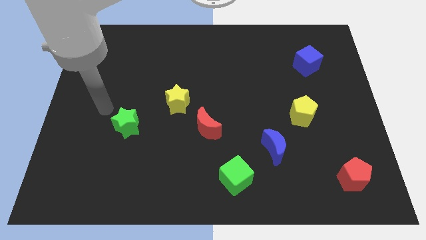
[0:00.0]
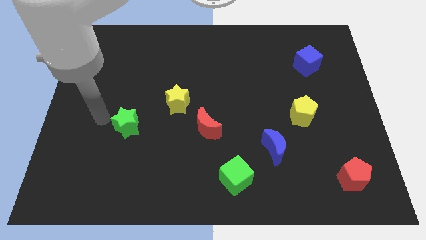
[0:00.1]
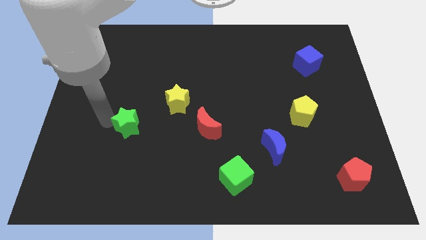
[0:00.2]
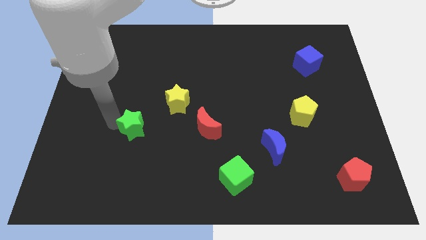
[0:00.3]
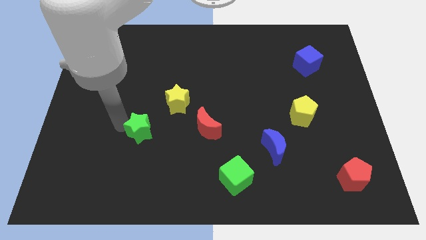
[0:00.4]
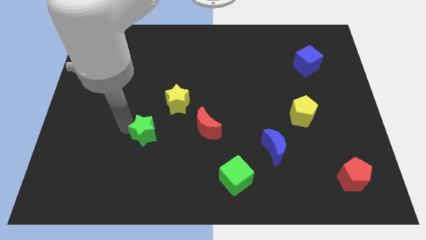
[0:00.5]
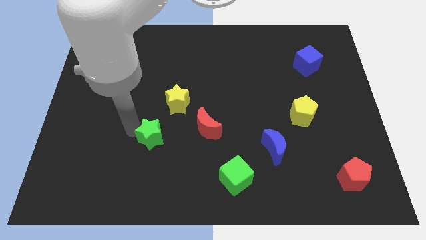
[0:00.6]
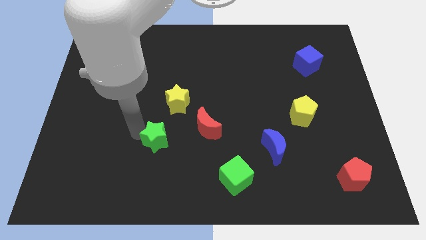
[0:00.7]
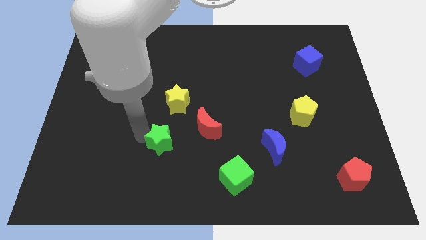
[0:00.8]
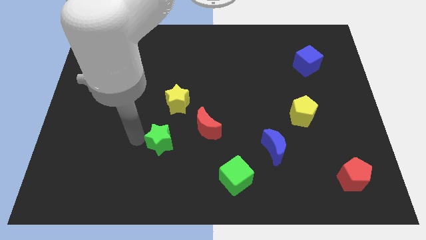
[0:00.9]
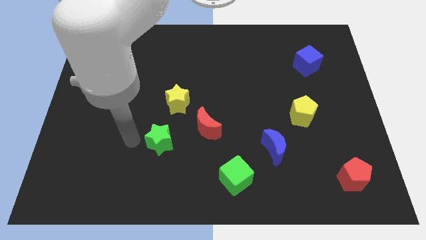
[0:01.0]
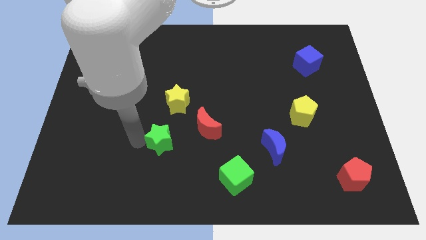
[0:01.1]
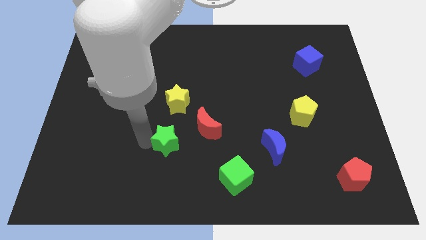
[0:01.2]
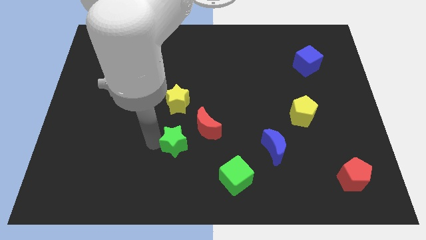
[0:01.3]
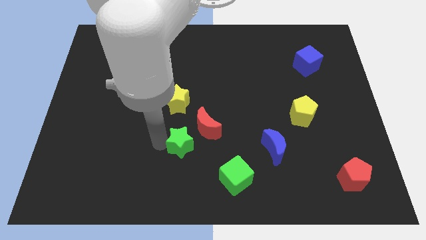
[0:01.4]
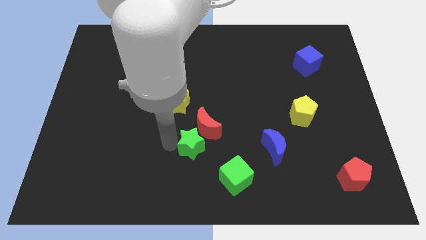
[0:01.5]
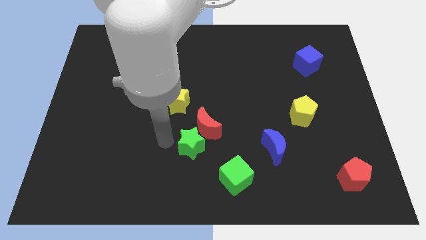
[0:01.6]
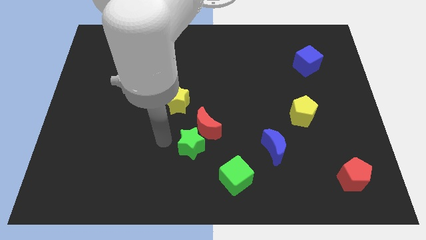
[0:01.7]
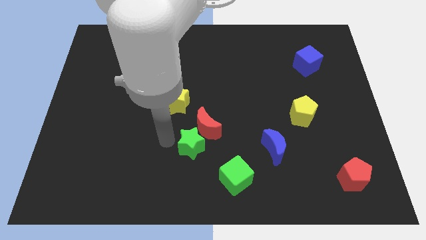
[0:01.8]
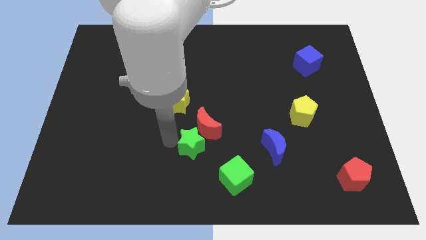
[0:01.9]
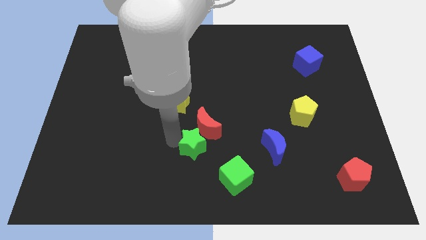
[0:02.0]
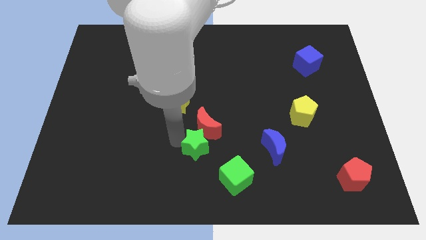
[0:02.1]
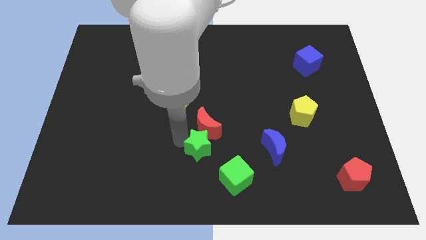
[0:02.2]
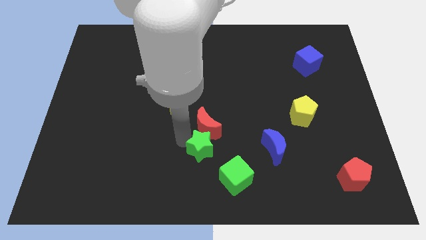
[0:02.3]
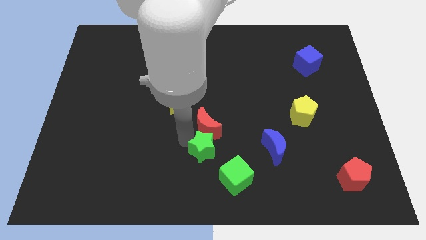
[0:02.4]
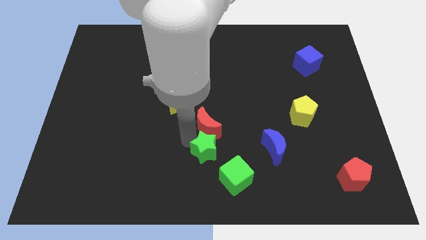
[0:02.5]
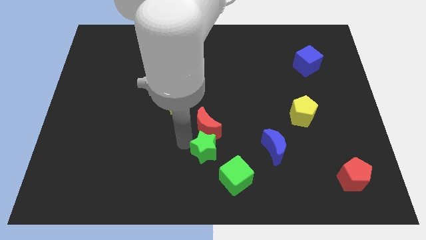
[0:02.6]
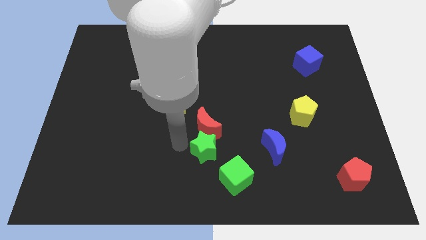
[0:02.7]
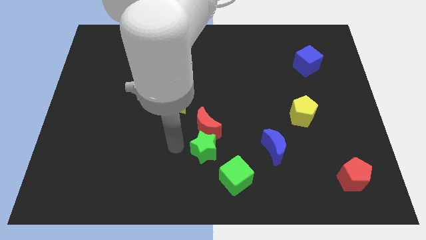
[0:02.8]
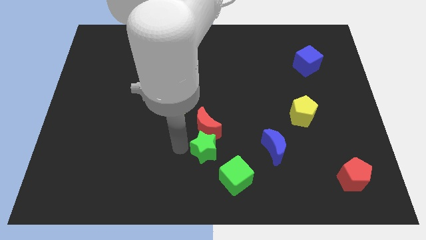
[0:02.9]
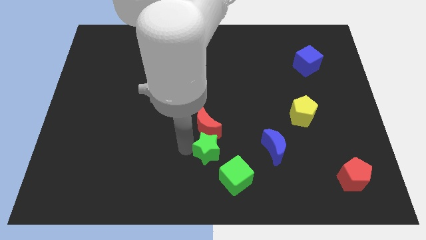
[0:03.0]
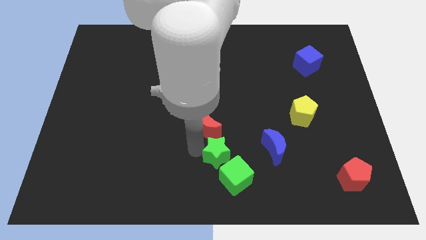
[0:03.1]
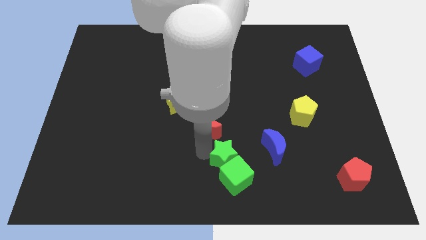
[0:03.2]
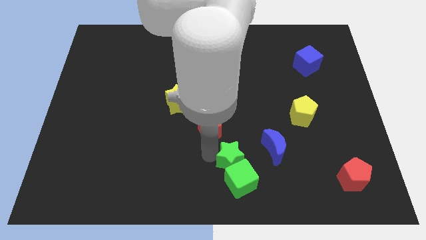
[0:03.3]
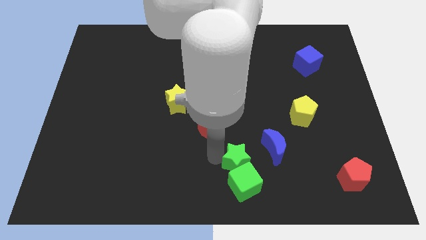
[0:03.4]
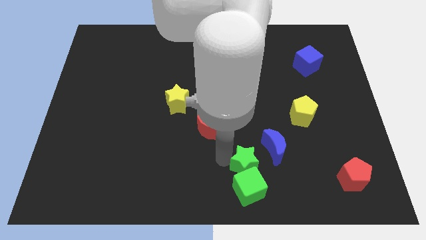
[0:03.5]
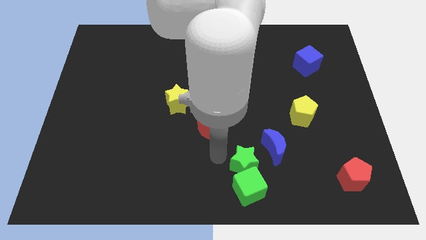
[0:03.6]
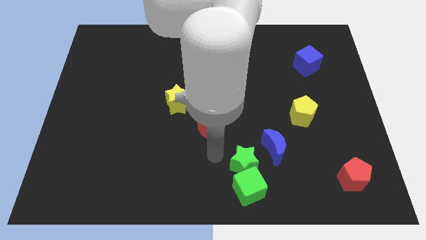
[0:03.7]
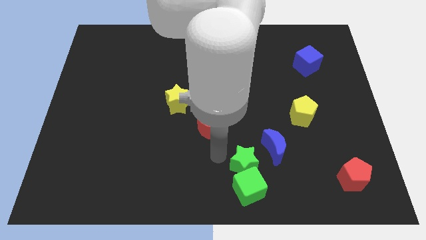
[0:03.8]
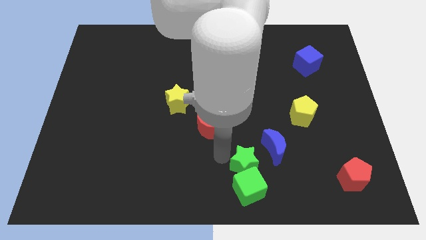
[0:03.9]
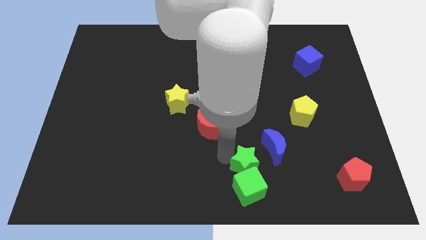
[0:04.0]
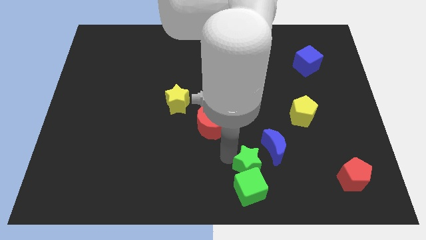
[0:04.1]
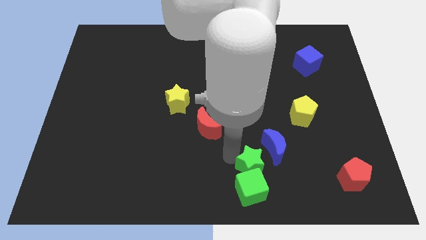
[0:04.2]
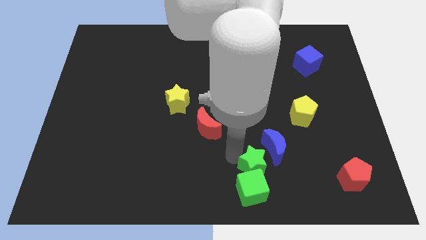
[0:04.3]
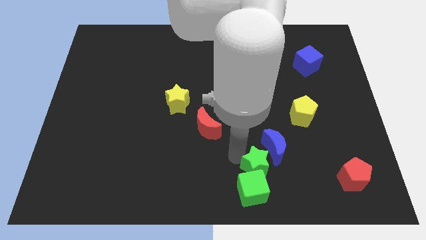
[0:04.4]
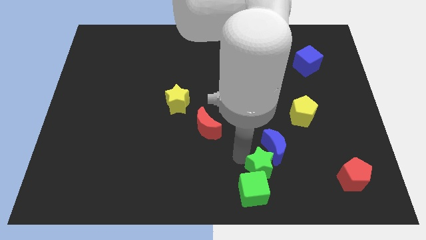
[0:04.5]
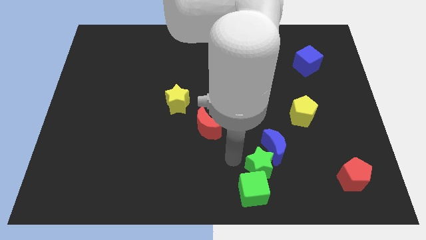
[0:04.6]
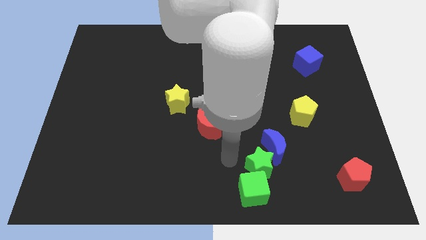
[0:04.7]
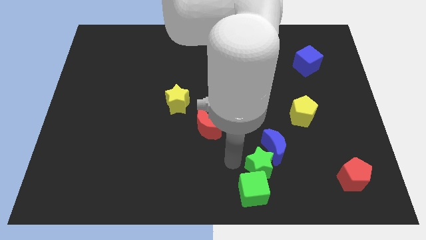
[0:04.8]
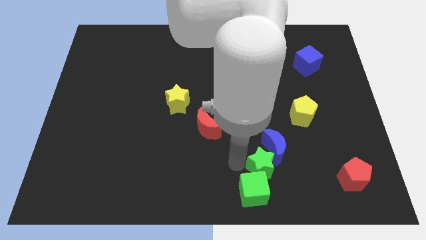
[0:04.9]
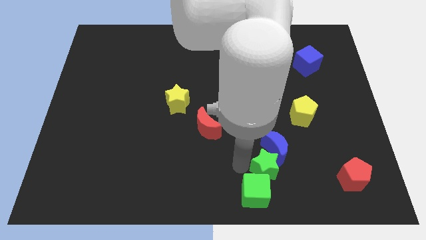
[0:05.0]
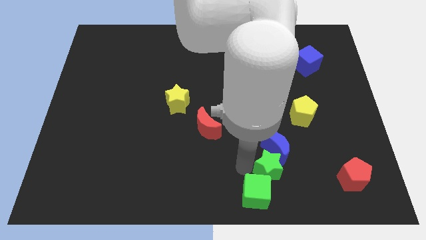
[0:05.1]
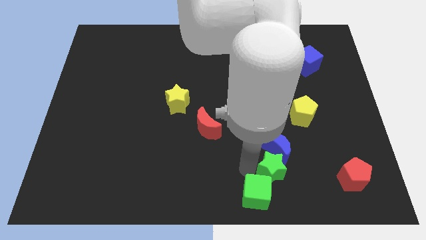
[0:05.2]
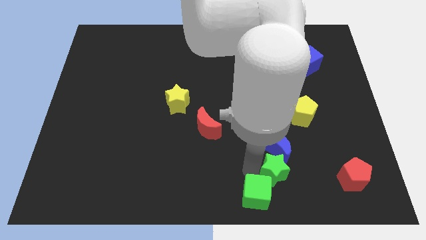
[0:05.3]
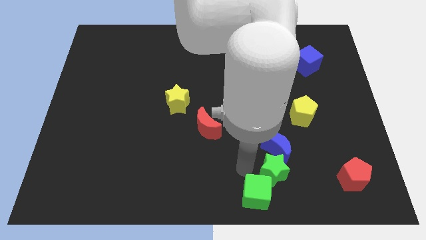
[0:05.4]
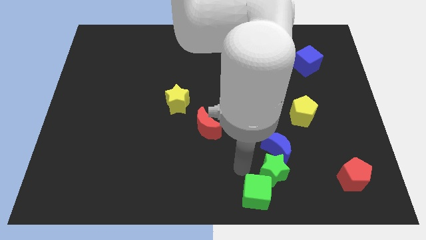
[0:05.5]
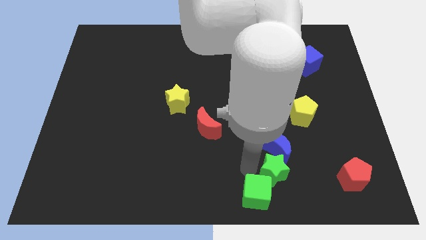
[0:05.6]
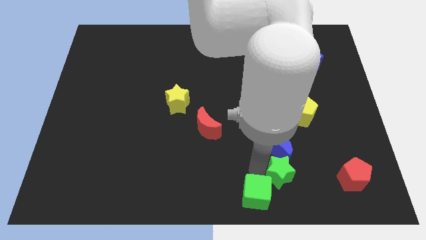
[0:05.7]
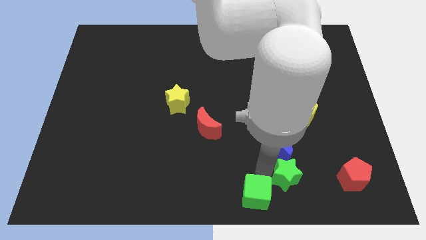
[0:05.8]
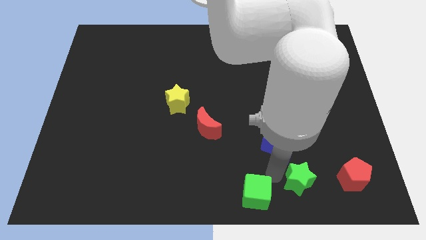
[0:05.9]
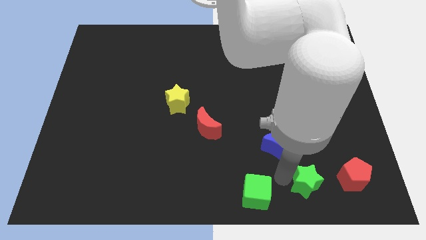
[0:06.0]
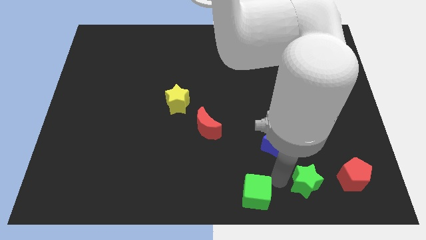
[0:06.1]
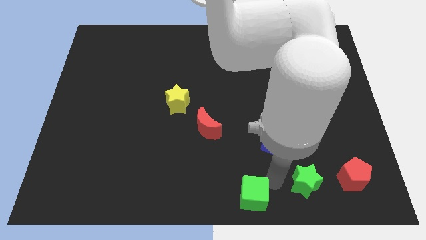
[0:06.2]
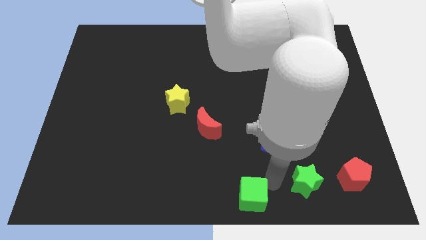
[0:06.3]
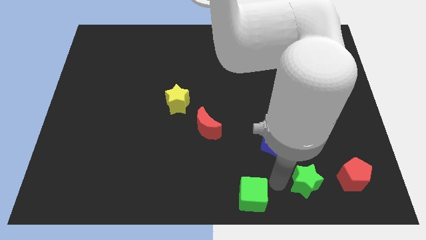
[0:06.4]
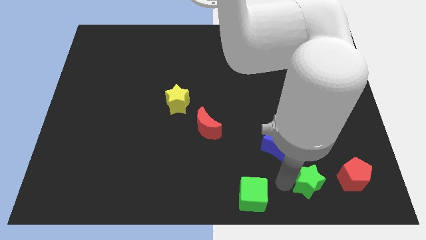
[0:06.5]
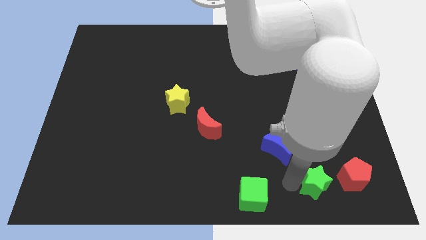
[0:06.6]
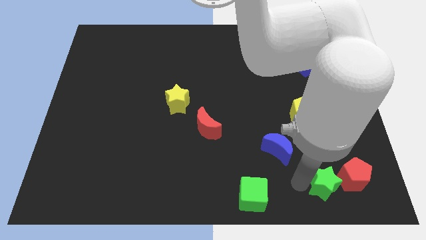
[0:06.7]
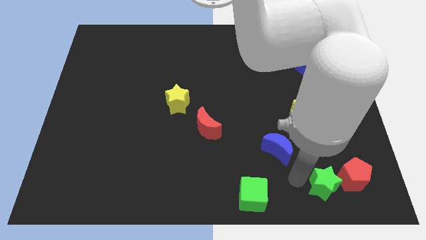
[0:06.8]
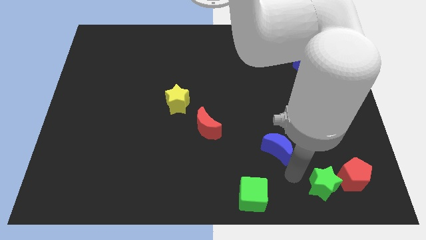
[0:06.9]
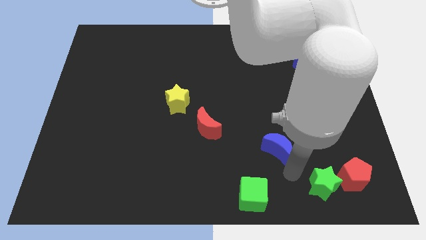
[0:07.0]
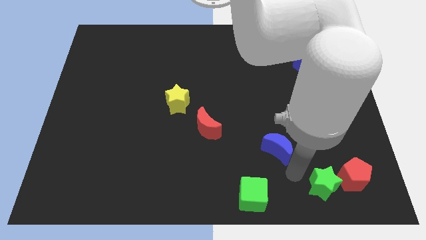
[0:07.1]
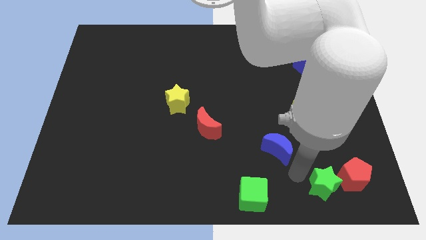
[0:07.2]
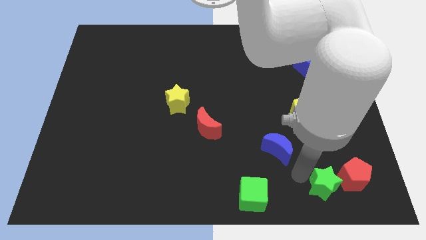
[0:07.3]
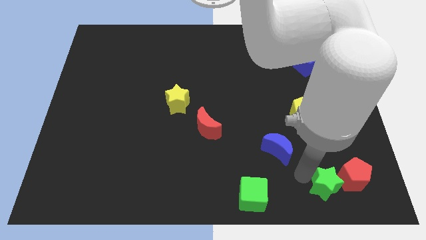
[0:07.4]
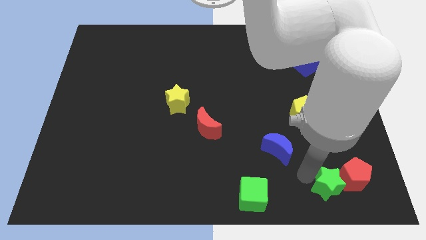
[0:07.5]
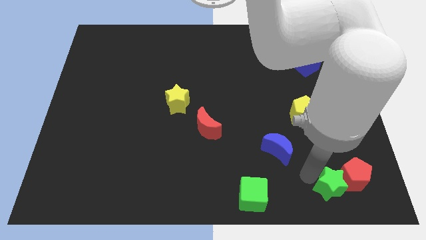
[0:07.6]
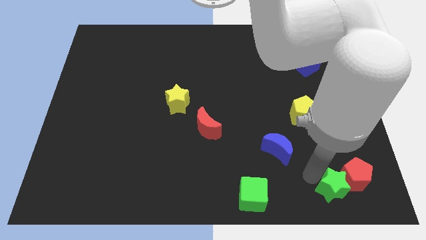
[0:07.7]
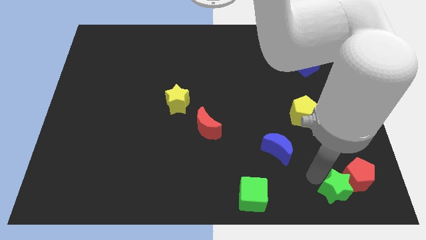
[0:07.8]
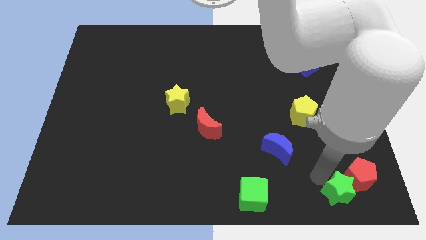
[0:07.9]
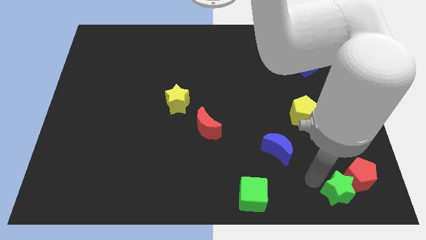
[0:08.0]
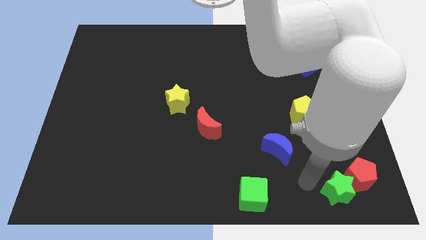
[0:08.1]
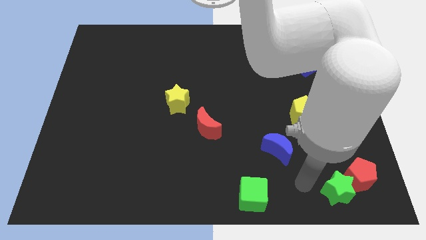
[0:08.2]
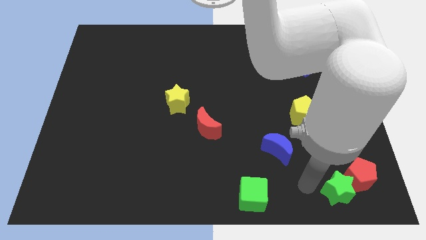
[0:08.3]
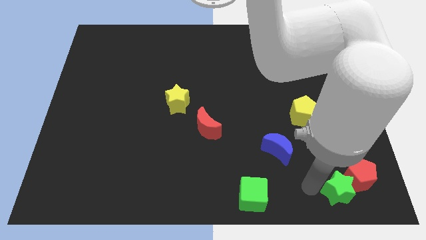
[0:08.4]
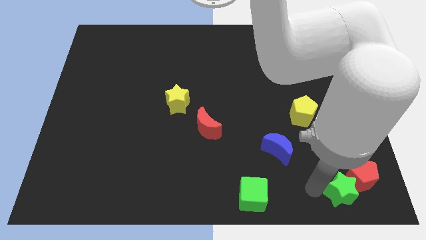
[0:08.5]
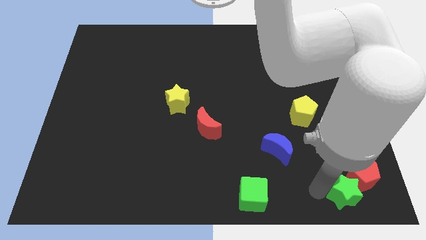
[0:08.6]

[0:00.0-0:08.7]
push the green star to the bottom right corner
